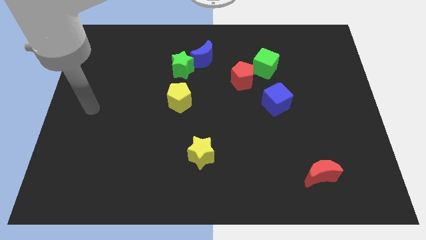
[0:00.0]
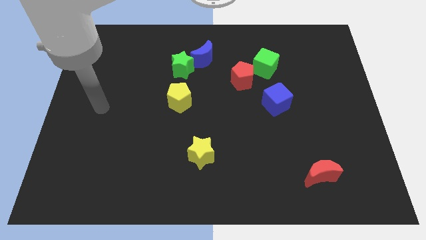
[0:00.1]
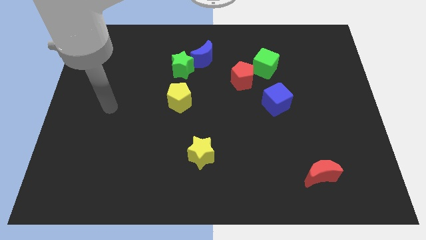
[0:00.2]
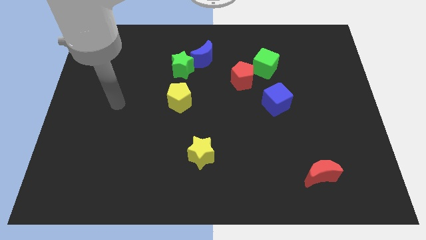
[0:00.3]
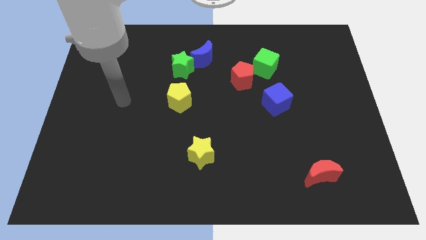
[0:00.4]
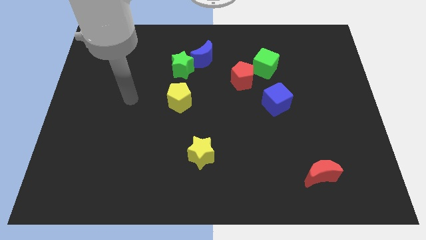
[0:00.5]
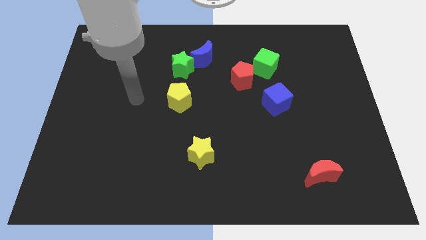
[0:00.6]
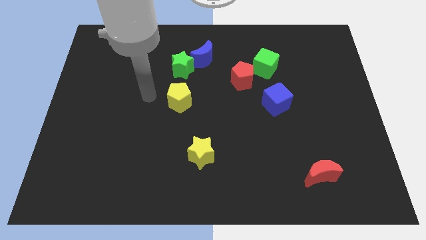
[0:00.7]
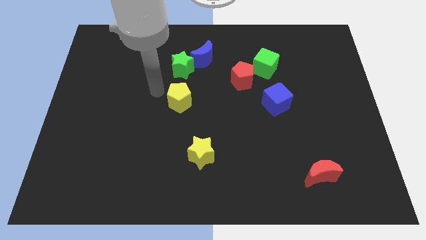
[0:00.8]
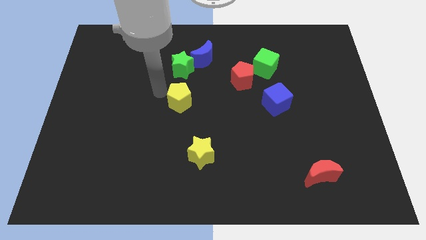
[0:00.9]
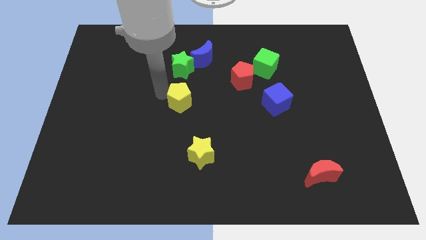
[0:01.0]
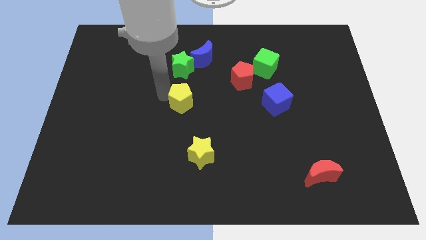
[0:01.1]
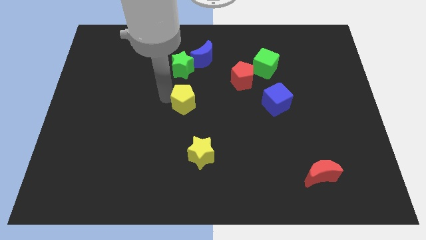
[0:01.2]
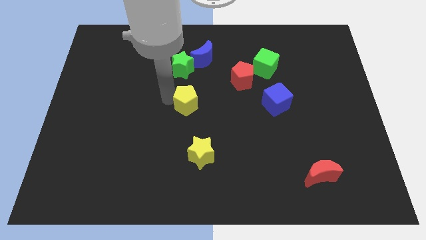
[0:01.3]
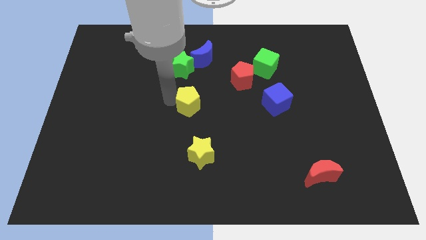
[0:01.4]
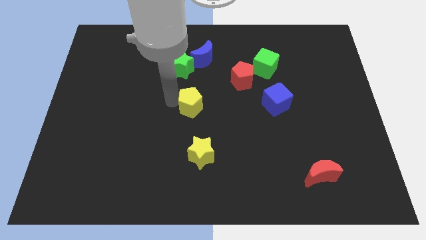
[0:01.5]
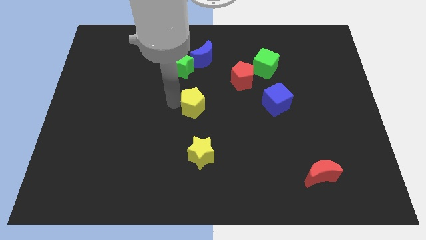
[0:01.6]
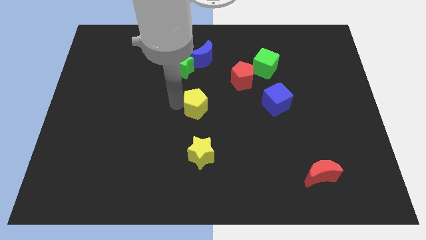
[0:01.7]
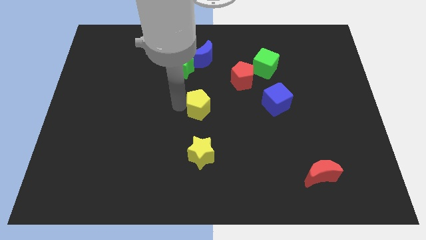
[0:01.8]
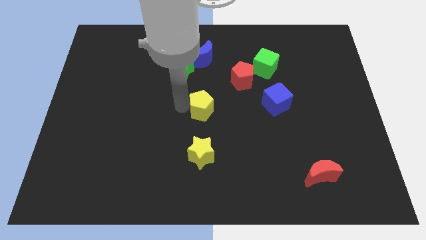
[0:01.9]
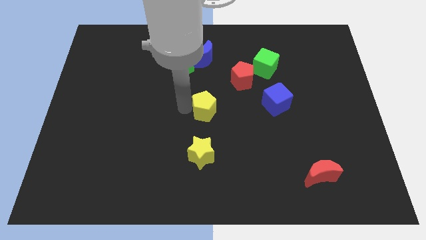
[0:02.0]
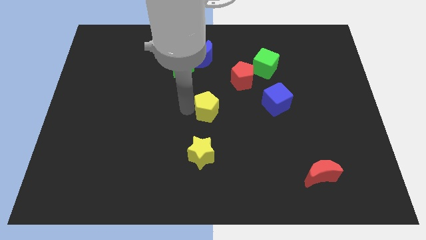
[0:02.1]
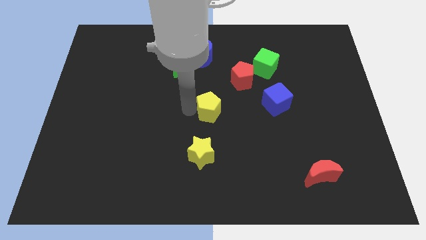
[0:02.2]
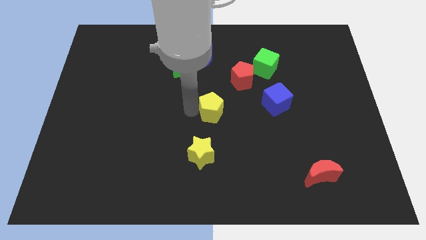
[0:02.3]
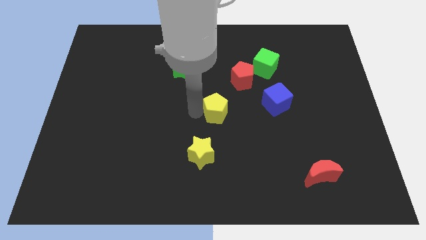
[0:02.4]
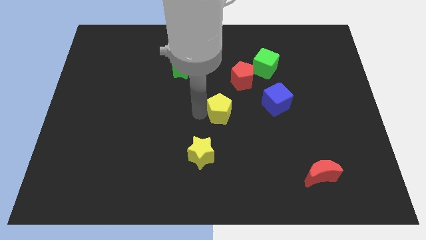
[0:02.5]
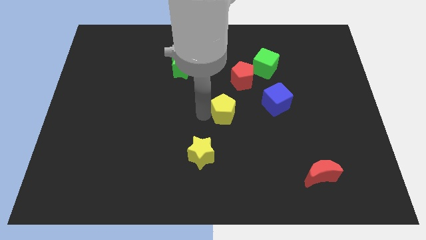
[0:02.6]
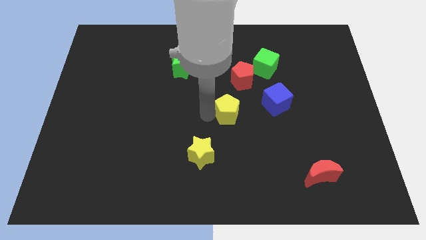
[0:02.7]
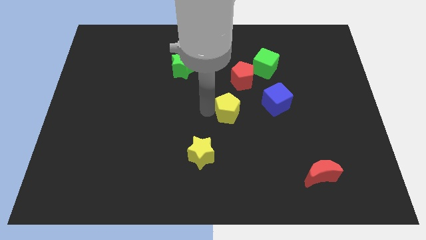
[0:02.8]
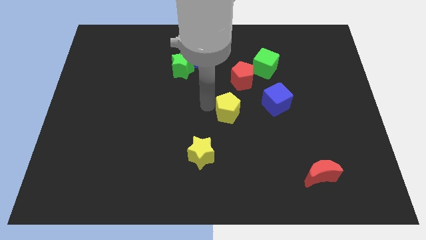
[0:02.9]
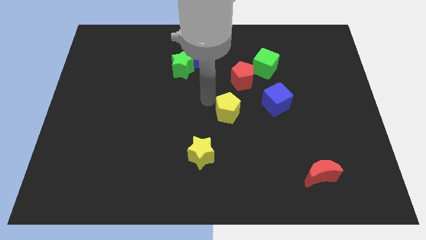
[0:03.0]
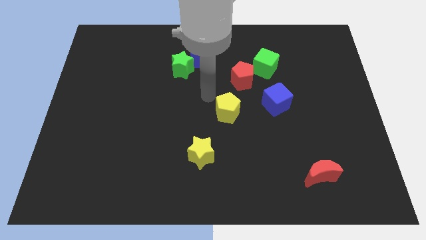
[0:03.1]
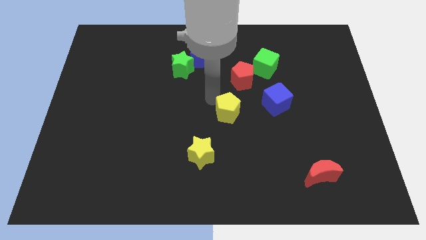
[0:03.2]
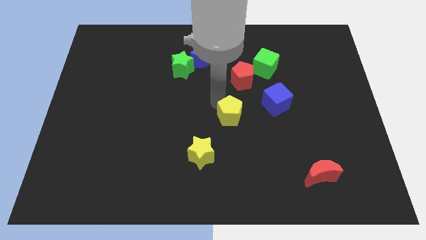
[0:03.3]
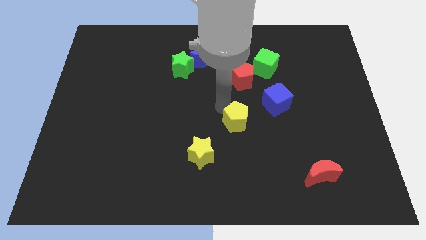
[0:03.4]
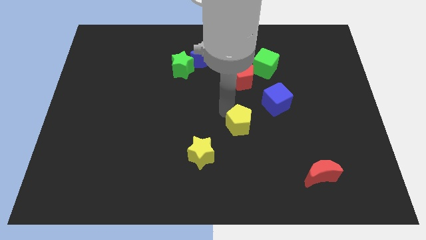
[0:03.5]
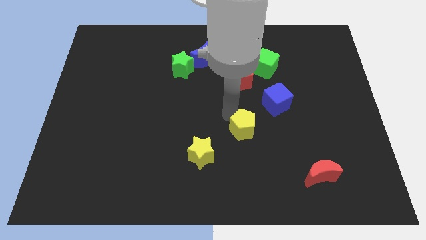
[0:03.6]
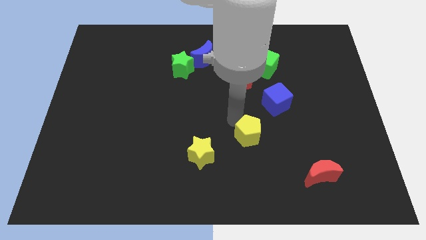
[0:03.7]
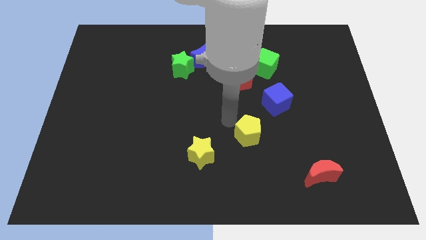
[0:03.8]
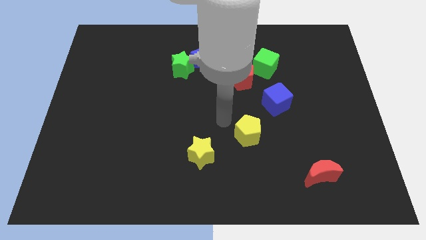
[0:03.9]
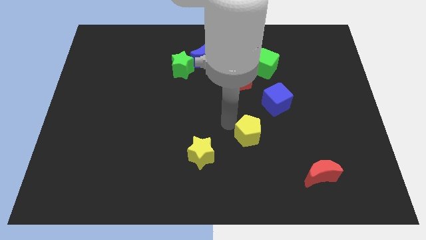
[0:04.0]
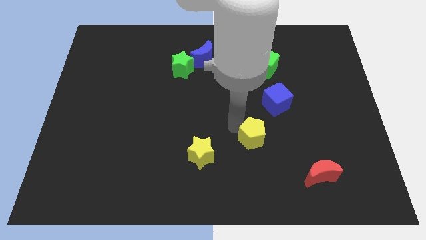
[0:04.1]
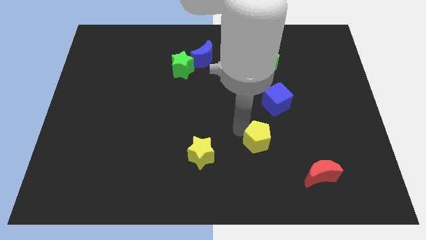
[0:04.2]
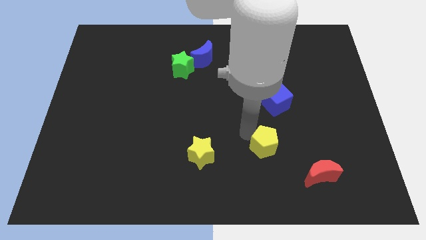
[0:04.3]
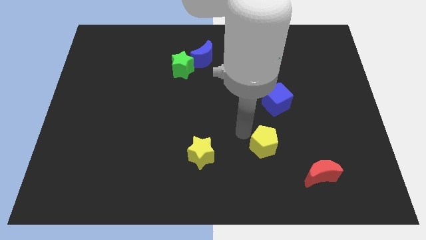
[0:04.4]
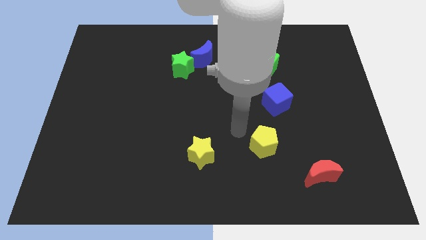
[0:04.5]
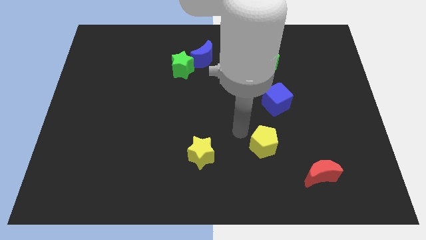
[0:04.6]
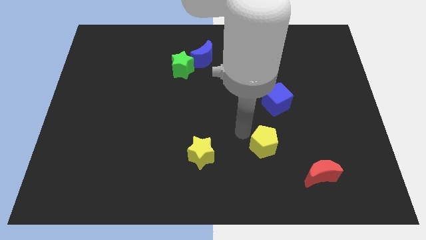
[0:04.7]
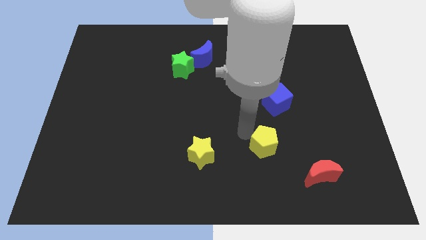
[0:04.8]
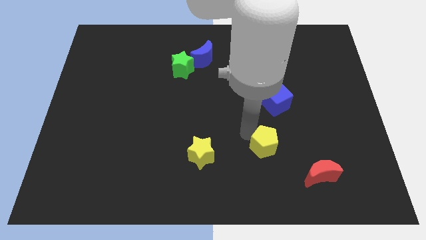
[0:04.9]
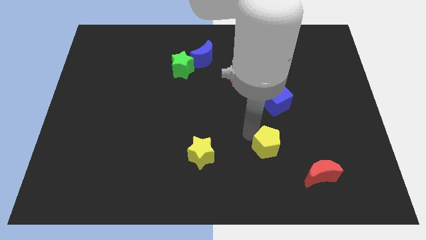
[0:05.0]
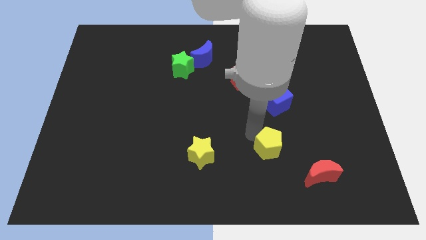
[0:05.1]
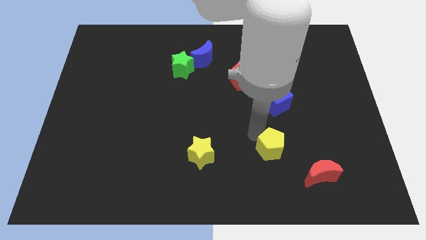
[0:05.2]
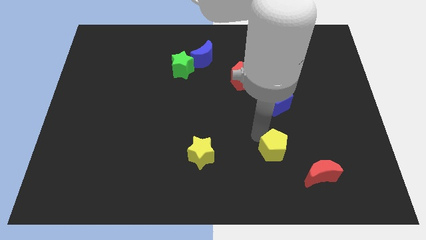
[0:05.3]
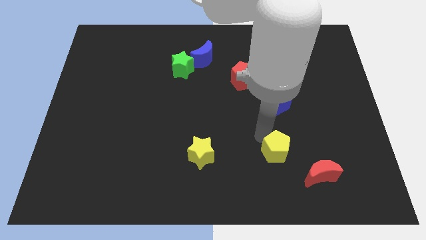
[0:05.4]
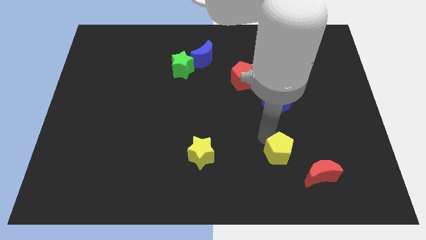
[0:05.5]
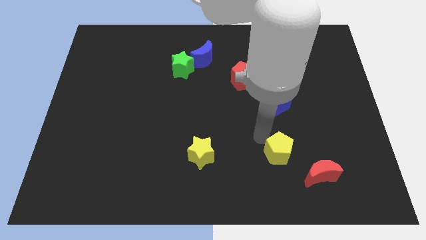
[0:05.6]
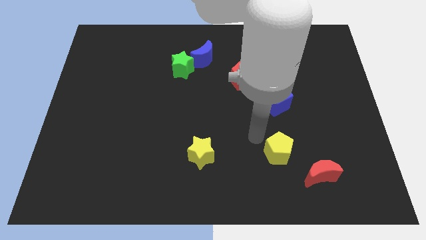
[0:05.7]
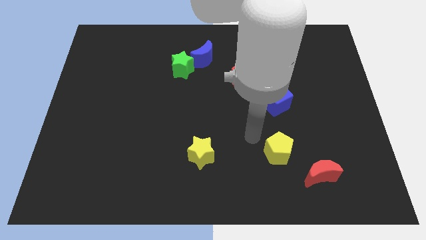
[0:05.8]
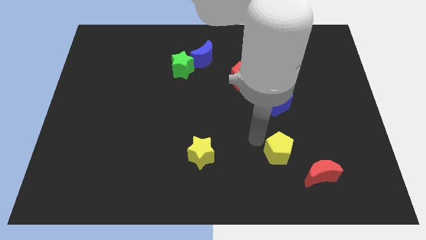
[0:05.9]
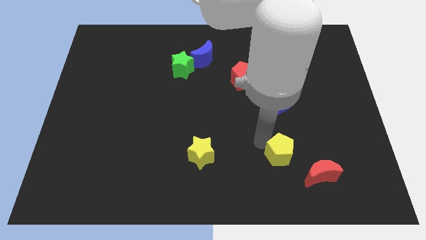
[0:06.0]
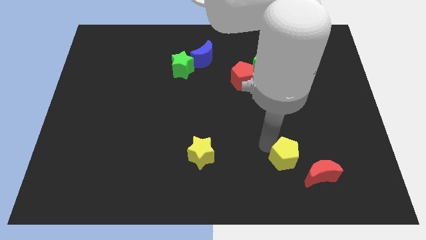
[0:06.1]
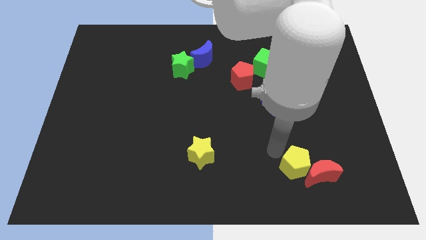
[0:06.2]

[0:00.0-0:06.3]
move the yellow pentagon next to the red moon

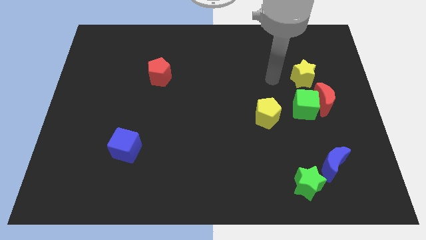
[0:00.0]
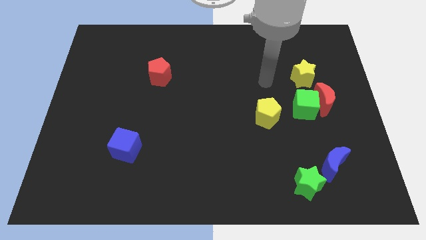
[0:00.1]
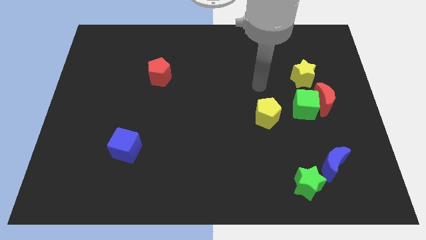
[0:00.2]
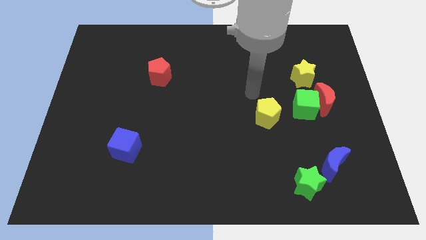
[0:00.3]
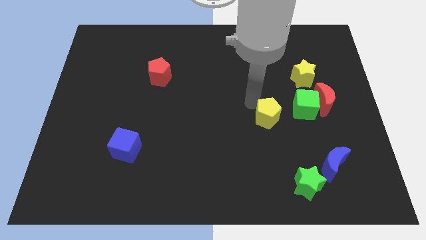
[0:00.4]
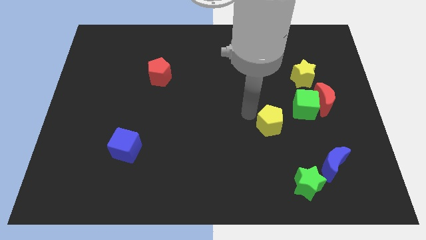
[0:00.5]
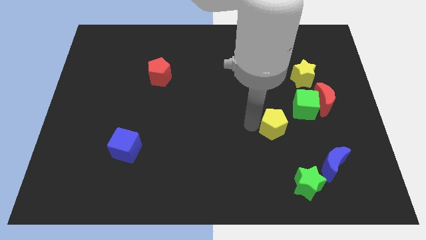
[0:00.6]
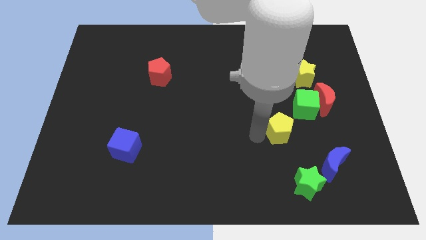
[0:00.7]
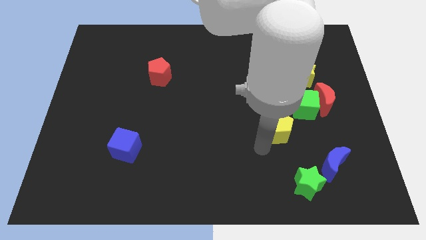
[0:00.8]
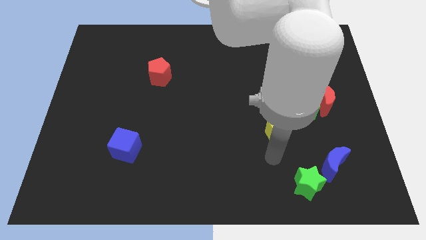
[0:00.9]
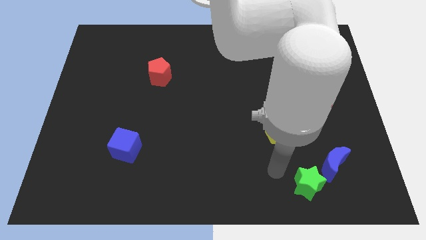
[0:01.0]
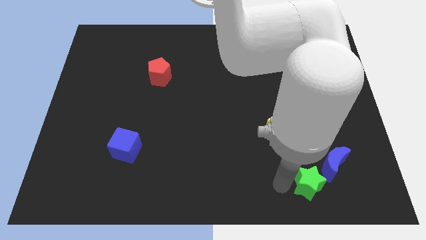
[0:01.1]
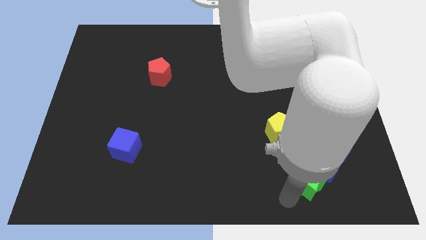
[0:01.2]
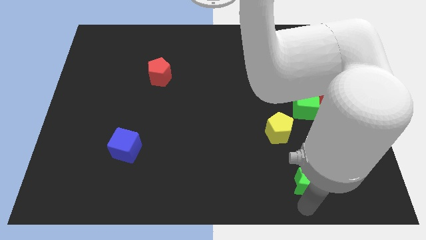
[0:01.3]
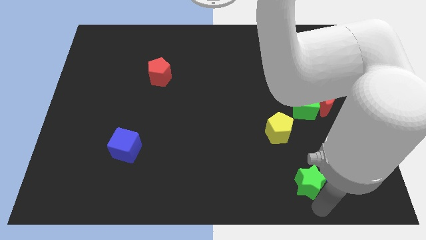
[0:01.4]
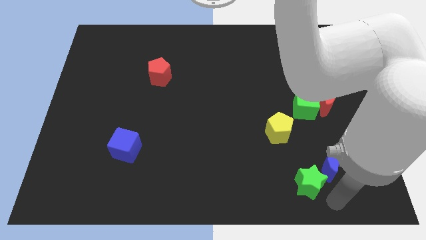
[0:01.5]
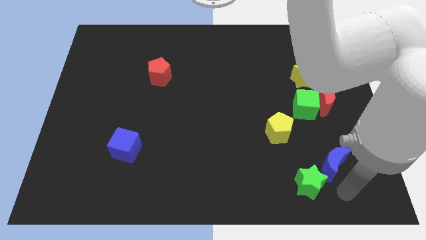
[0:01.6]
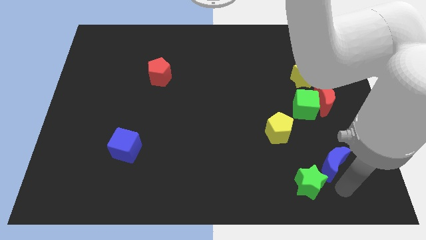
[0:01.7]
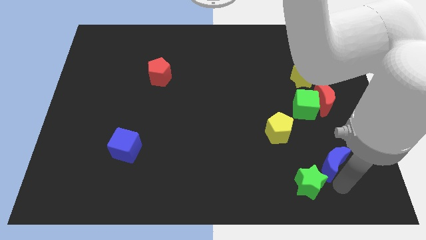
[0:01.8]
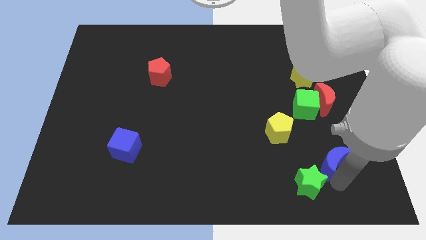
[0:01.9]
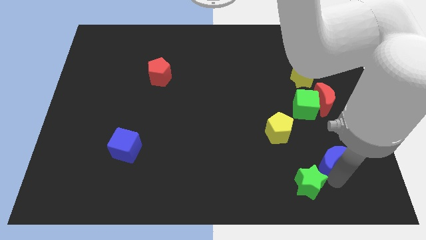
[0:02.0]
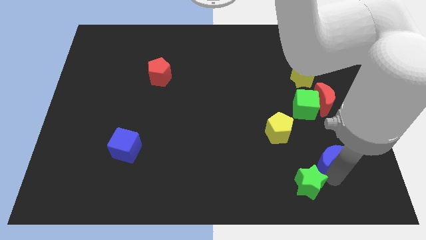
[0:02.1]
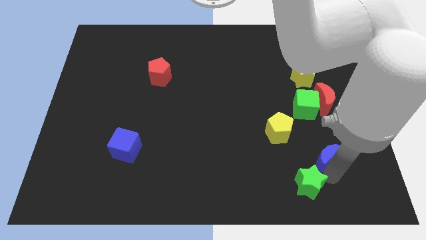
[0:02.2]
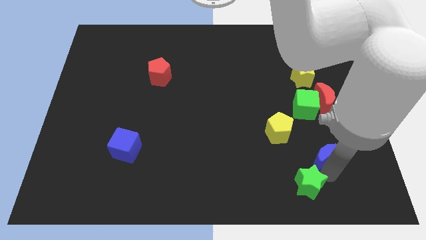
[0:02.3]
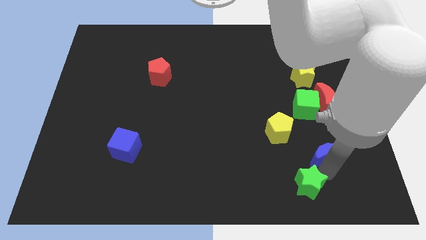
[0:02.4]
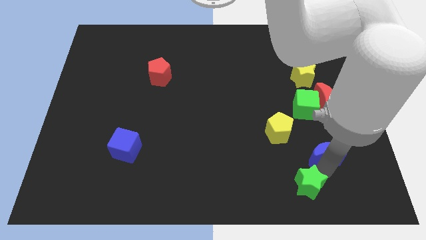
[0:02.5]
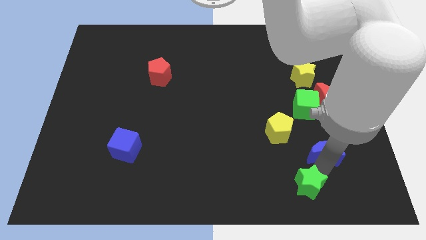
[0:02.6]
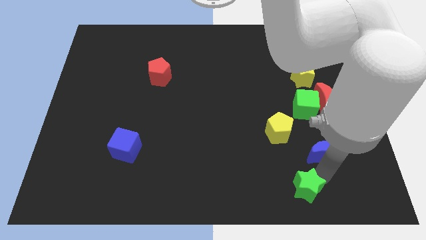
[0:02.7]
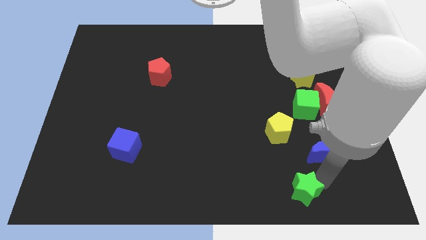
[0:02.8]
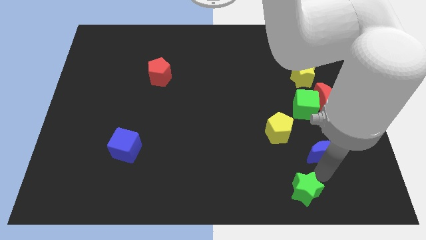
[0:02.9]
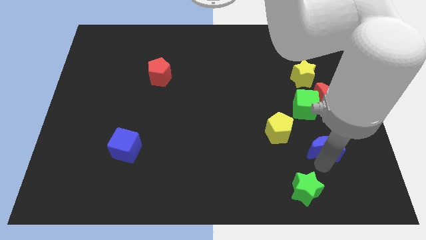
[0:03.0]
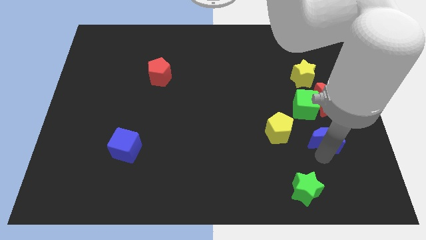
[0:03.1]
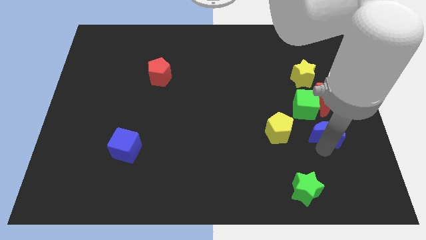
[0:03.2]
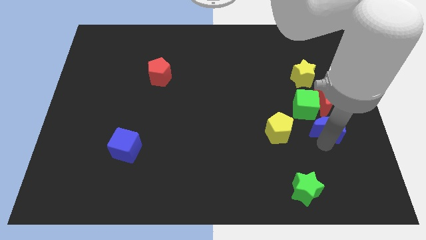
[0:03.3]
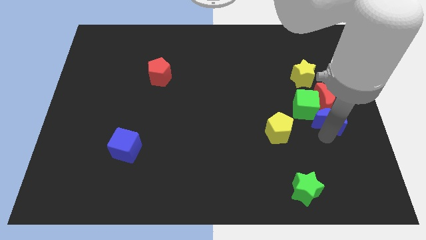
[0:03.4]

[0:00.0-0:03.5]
push the blue moon close to the red moon
